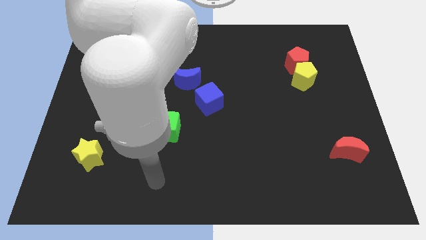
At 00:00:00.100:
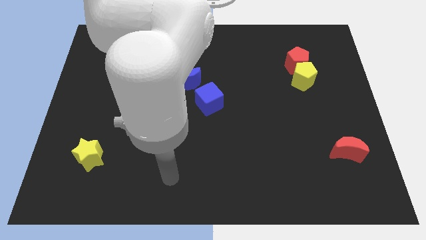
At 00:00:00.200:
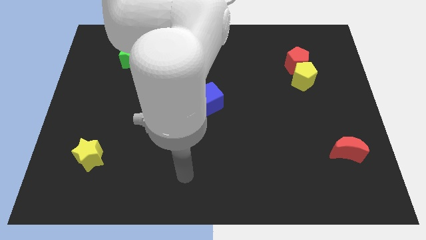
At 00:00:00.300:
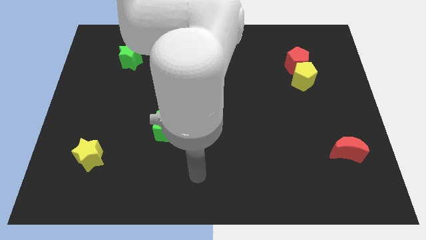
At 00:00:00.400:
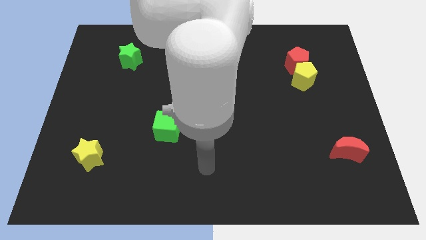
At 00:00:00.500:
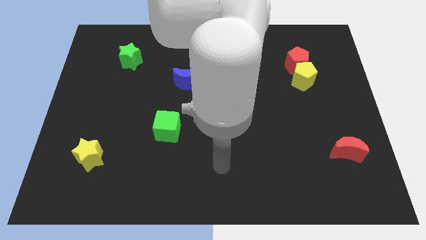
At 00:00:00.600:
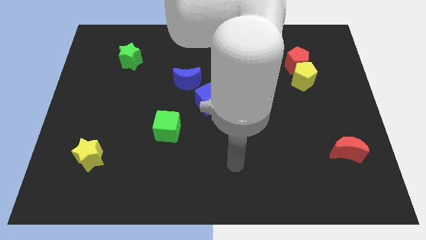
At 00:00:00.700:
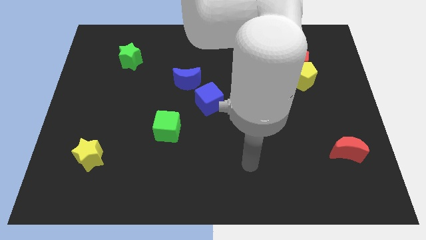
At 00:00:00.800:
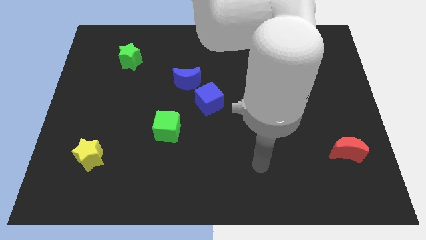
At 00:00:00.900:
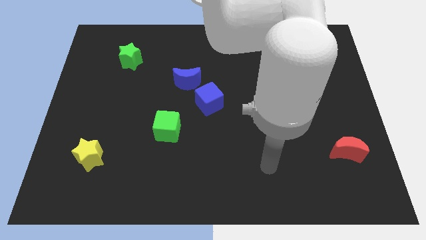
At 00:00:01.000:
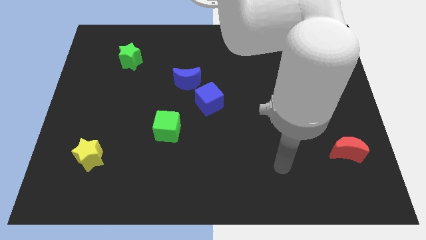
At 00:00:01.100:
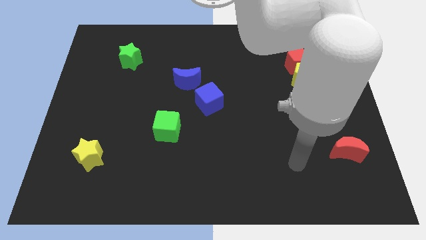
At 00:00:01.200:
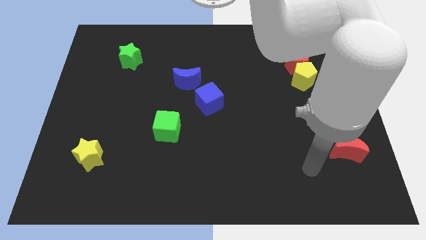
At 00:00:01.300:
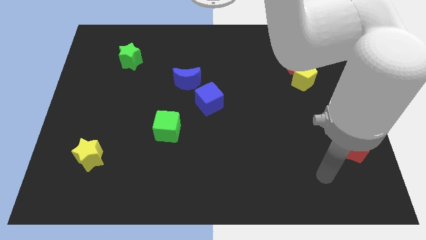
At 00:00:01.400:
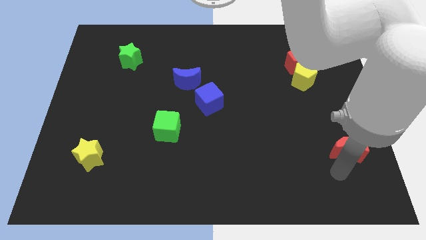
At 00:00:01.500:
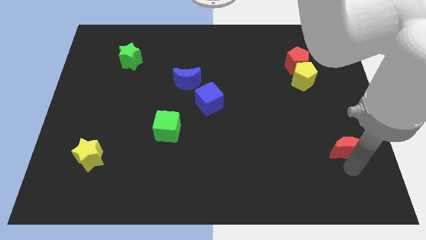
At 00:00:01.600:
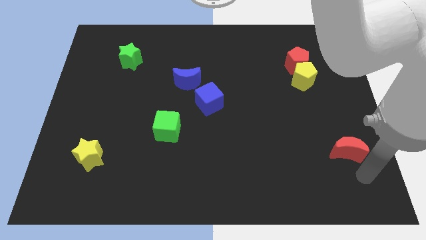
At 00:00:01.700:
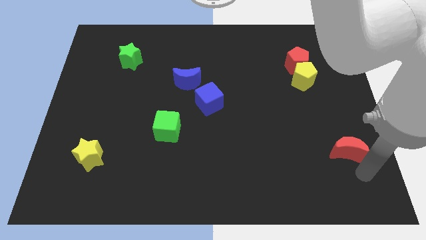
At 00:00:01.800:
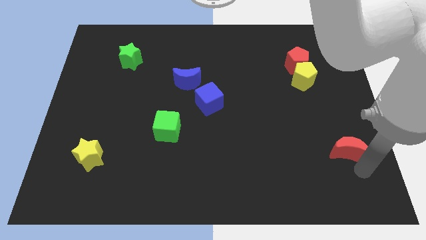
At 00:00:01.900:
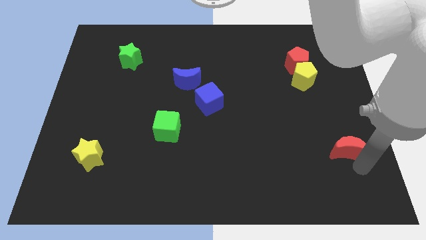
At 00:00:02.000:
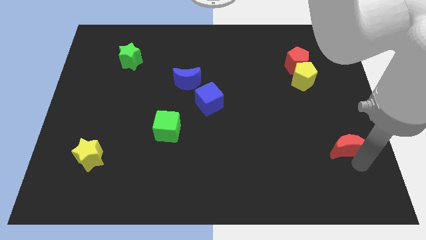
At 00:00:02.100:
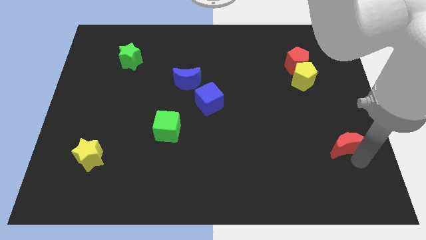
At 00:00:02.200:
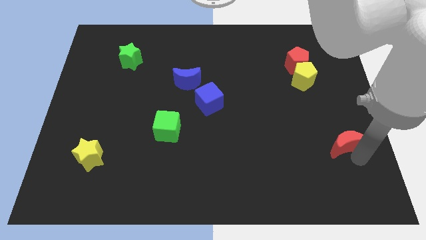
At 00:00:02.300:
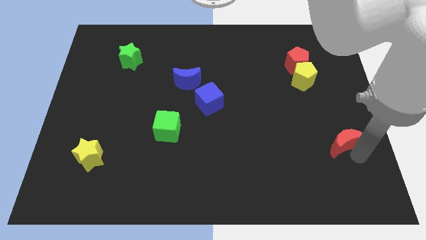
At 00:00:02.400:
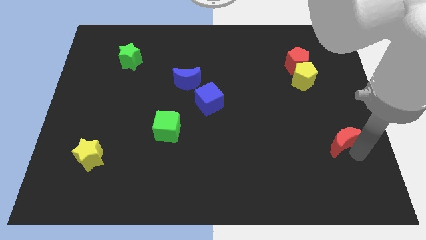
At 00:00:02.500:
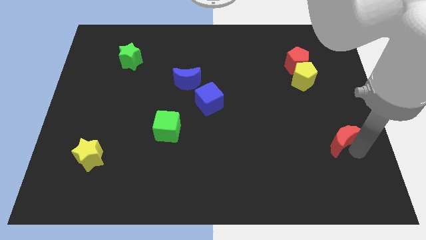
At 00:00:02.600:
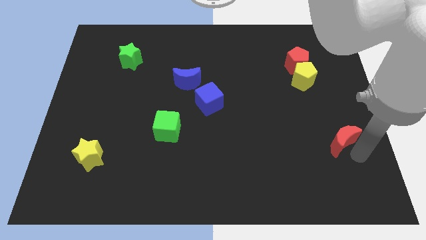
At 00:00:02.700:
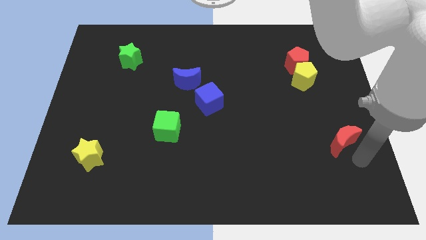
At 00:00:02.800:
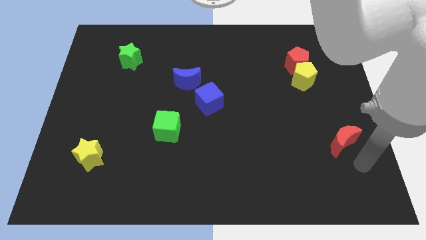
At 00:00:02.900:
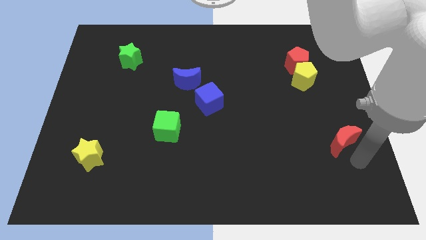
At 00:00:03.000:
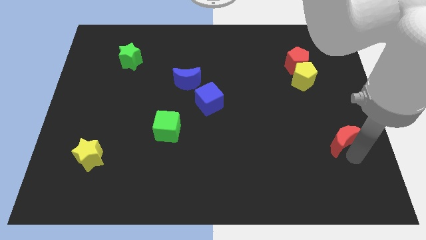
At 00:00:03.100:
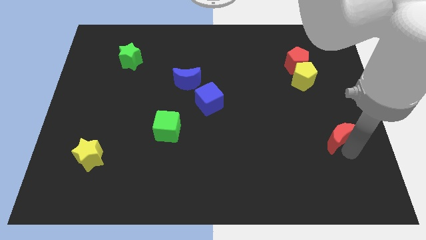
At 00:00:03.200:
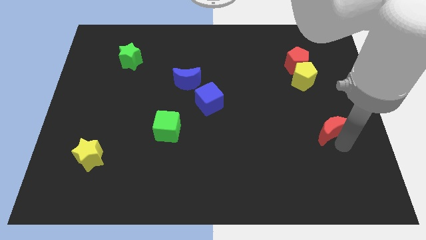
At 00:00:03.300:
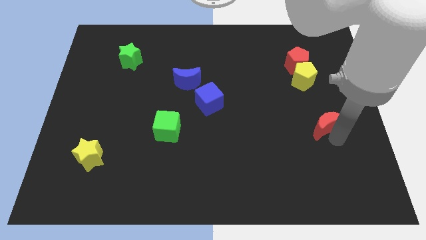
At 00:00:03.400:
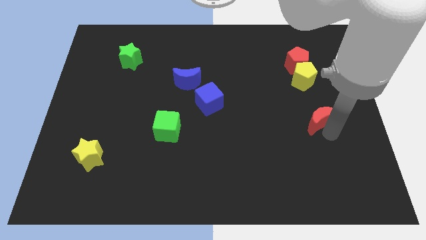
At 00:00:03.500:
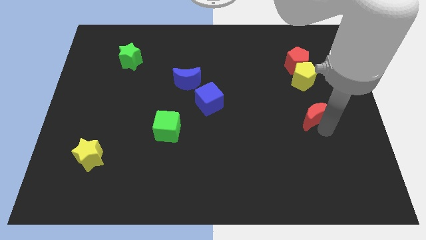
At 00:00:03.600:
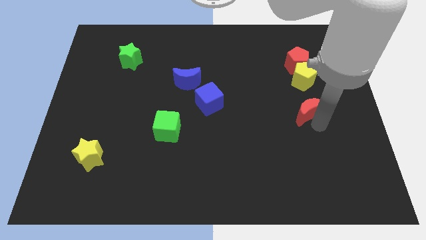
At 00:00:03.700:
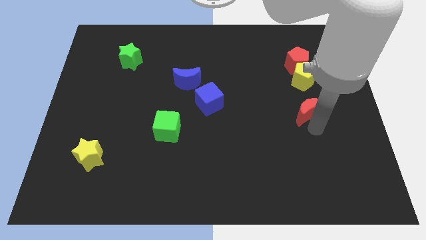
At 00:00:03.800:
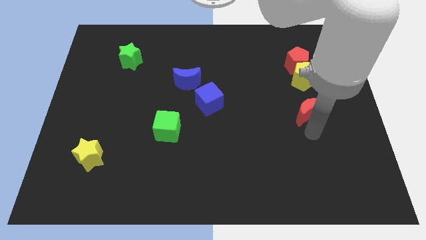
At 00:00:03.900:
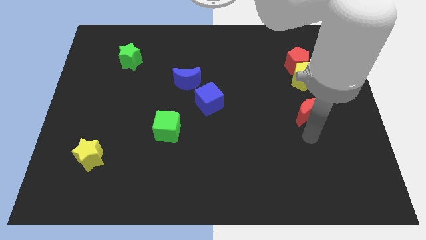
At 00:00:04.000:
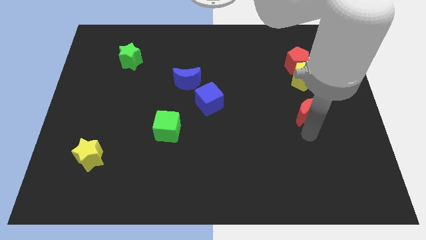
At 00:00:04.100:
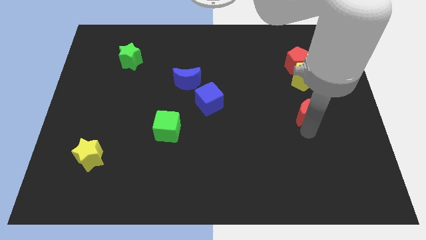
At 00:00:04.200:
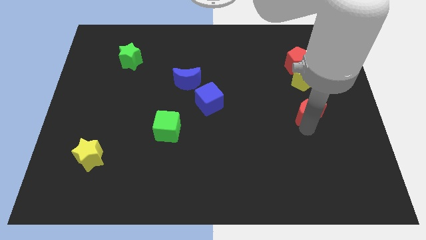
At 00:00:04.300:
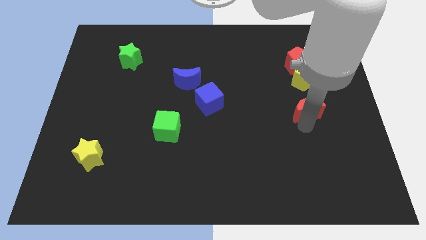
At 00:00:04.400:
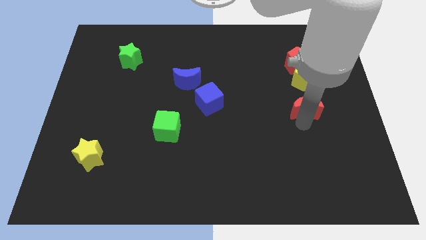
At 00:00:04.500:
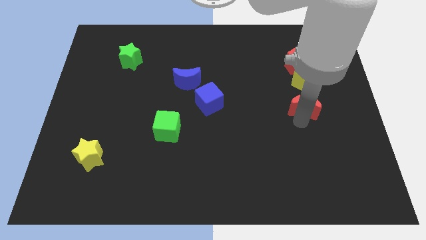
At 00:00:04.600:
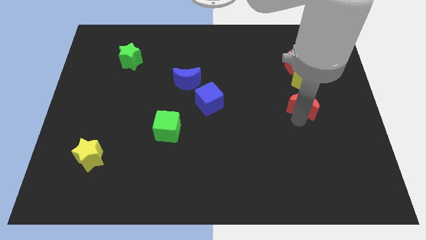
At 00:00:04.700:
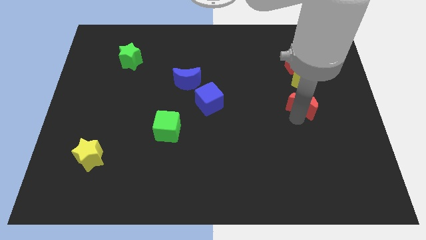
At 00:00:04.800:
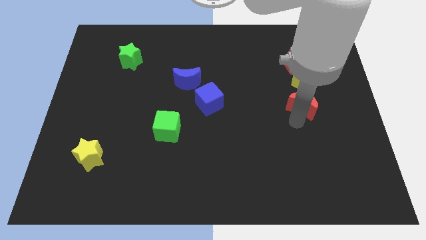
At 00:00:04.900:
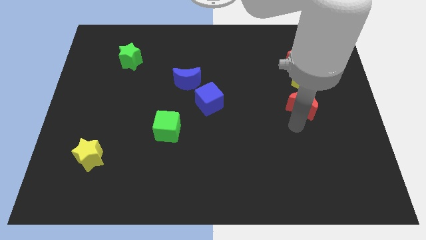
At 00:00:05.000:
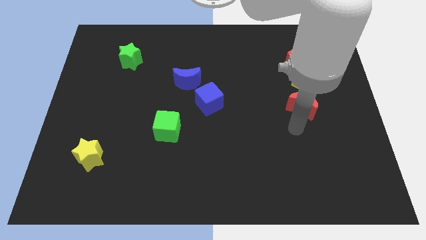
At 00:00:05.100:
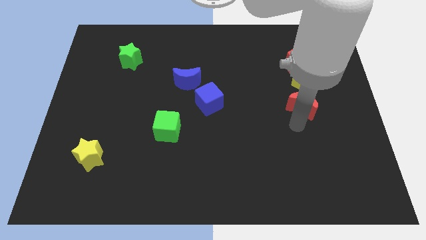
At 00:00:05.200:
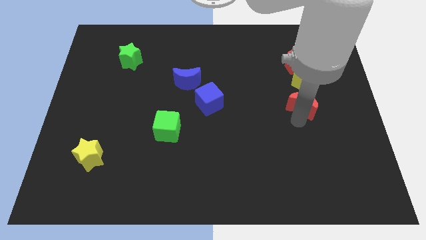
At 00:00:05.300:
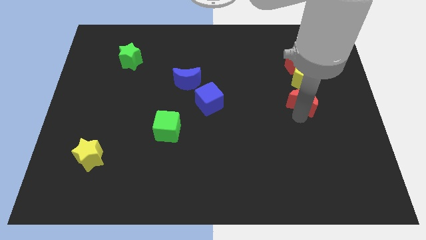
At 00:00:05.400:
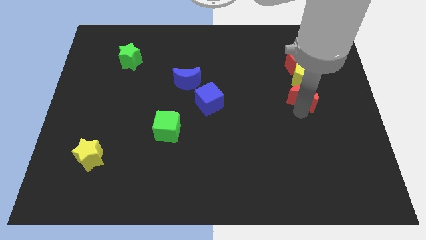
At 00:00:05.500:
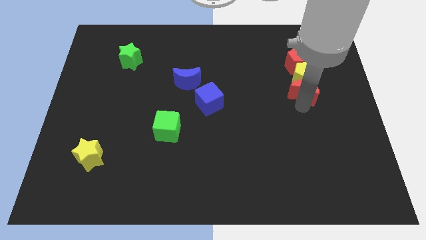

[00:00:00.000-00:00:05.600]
slide the red moon close to the yellow pentagon

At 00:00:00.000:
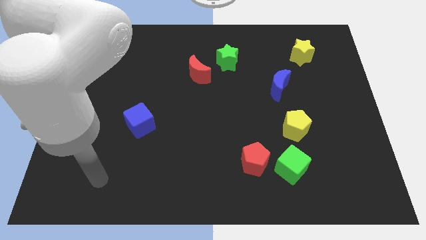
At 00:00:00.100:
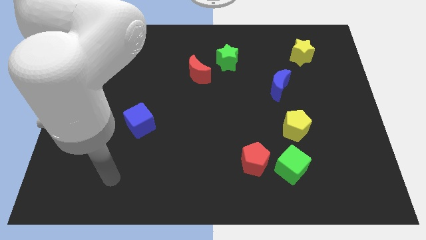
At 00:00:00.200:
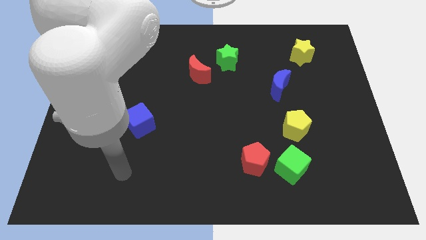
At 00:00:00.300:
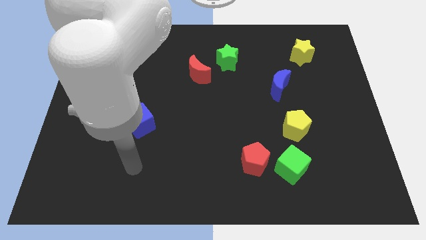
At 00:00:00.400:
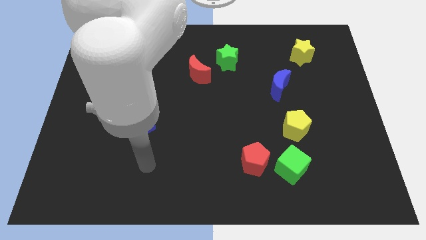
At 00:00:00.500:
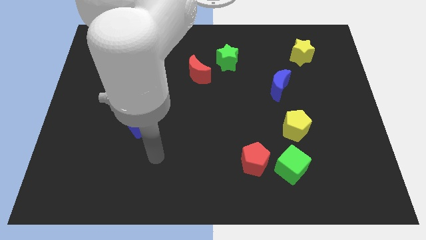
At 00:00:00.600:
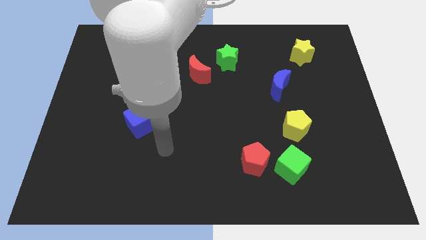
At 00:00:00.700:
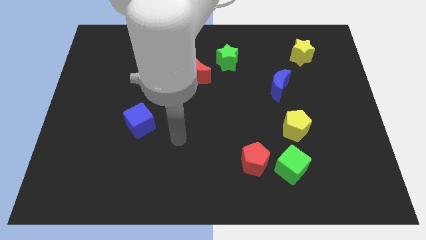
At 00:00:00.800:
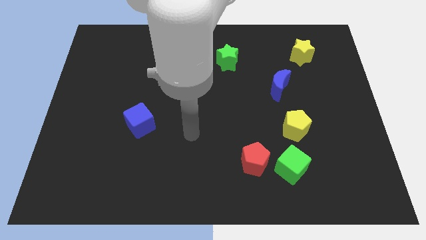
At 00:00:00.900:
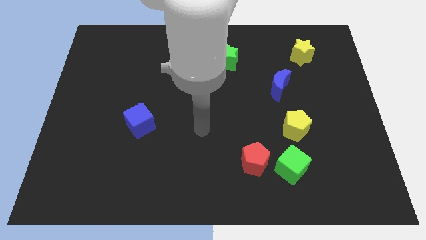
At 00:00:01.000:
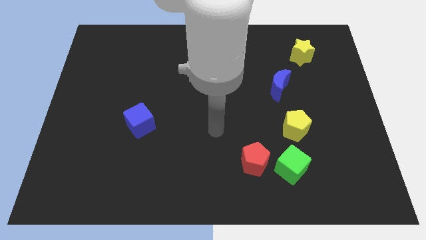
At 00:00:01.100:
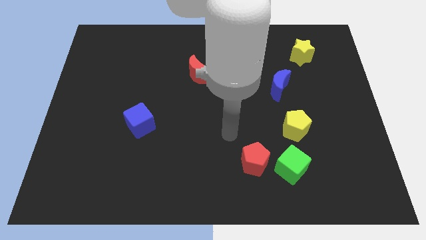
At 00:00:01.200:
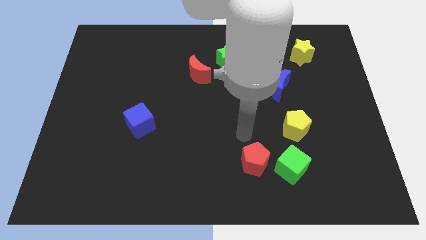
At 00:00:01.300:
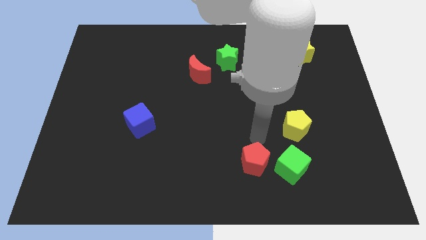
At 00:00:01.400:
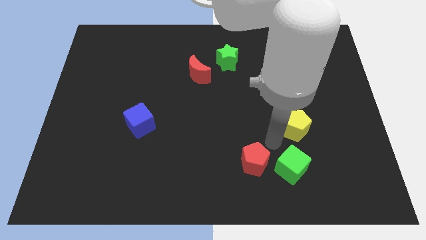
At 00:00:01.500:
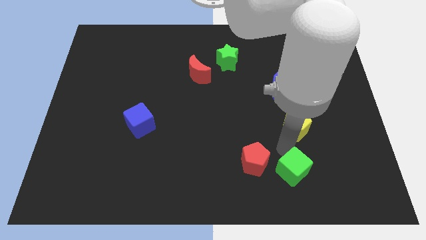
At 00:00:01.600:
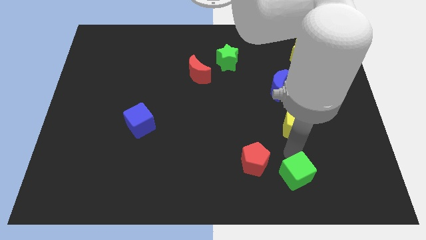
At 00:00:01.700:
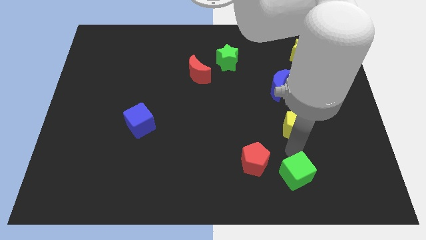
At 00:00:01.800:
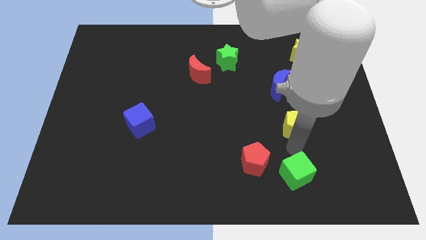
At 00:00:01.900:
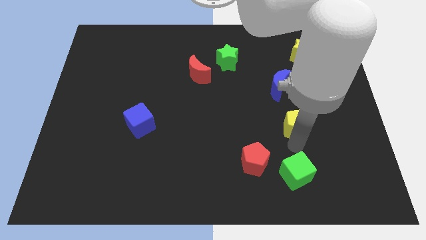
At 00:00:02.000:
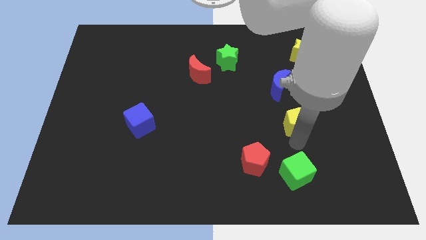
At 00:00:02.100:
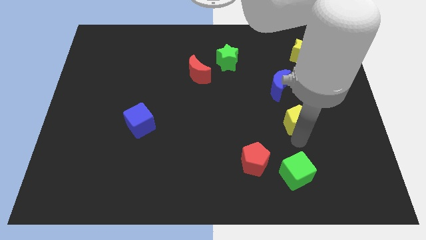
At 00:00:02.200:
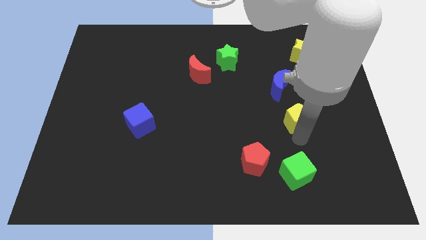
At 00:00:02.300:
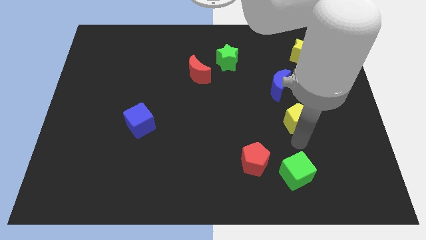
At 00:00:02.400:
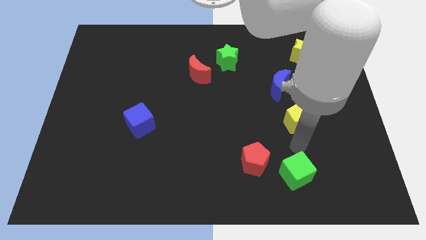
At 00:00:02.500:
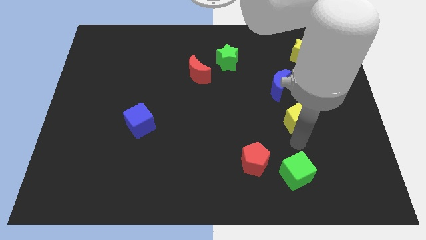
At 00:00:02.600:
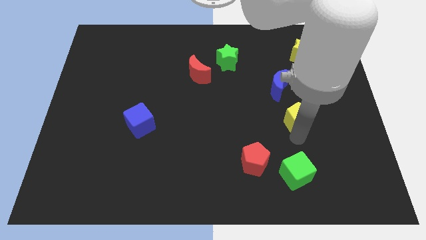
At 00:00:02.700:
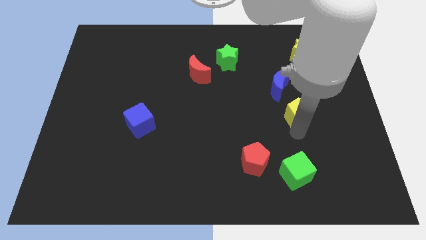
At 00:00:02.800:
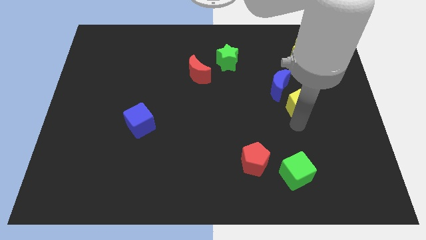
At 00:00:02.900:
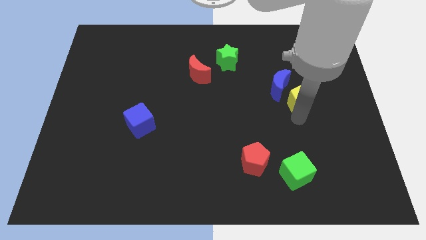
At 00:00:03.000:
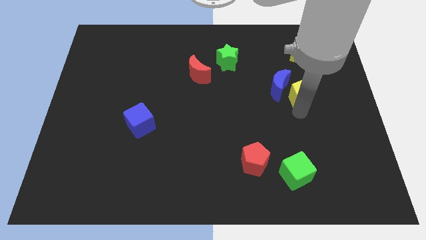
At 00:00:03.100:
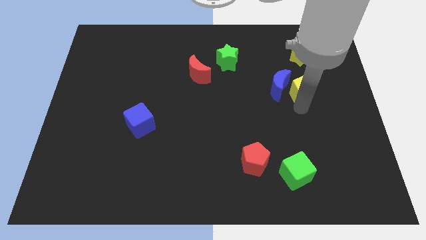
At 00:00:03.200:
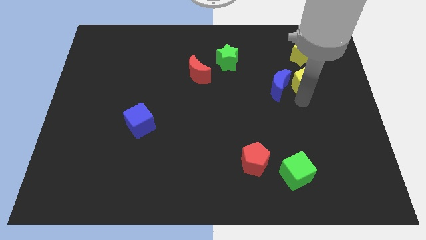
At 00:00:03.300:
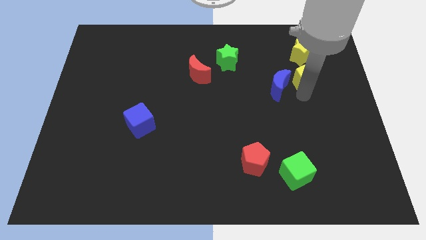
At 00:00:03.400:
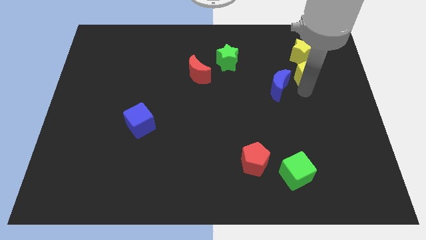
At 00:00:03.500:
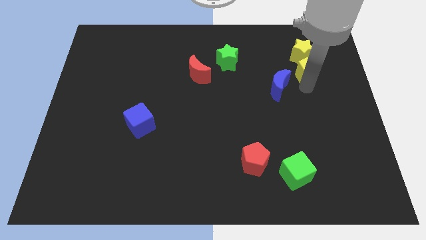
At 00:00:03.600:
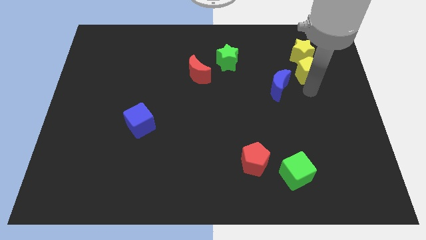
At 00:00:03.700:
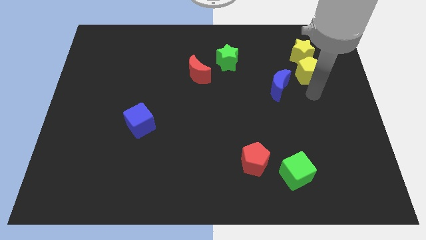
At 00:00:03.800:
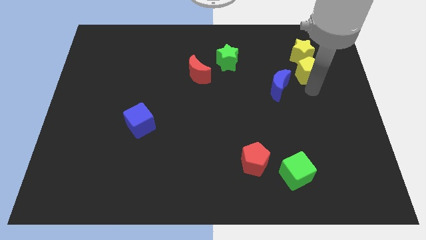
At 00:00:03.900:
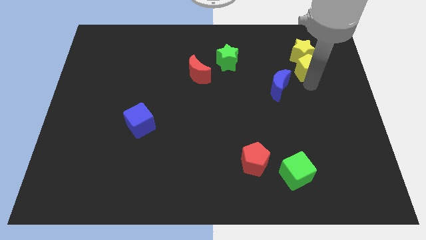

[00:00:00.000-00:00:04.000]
put the yellow pentagon close to the yellow star
